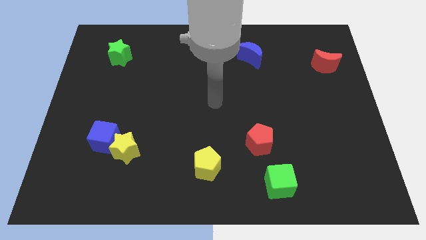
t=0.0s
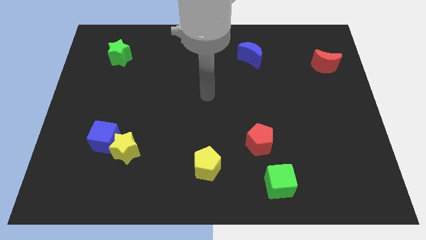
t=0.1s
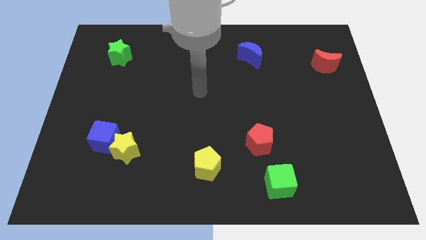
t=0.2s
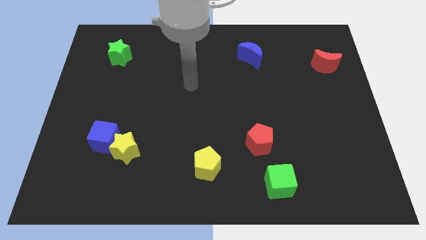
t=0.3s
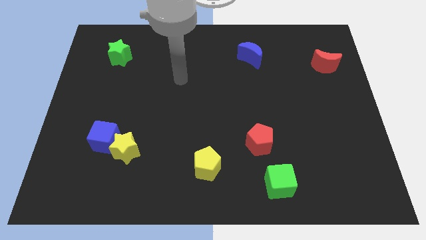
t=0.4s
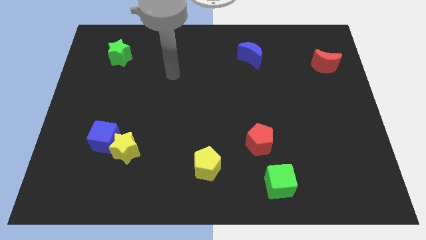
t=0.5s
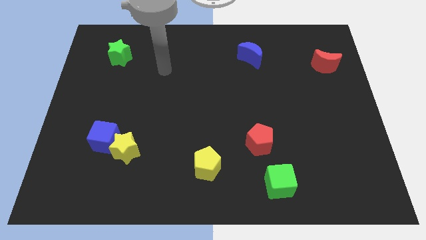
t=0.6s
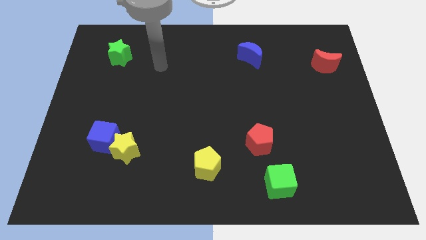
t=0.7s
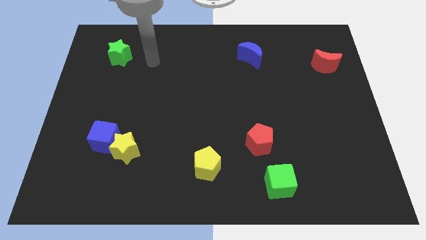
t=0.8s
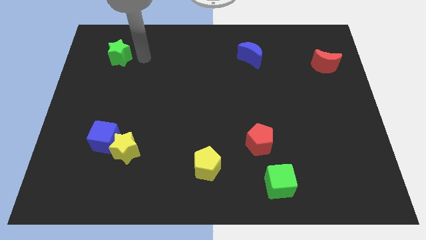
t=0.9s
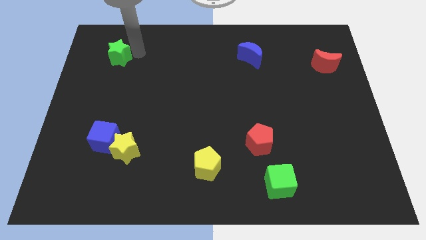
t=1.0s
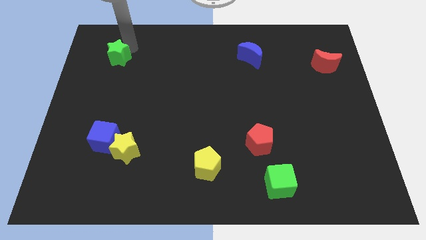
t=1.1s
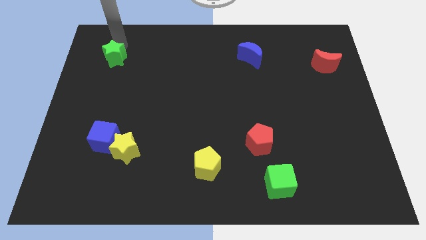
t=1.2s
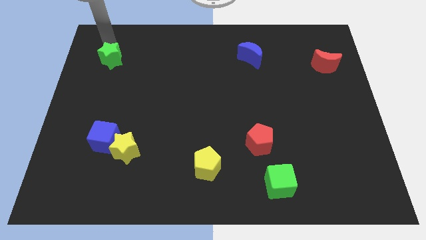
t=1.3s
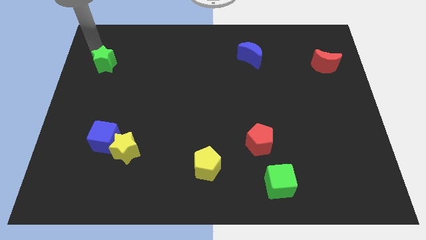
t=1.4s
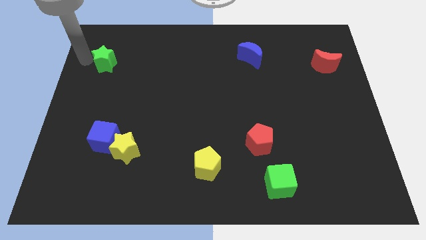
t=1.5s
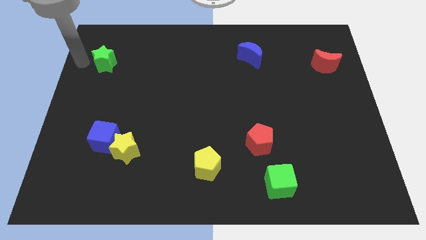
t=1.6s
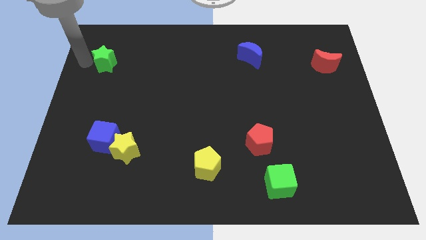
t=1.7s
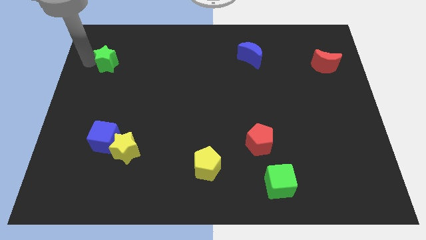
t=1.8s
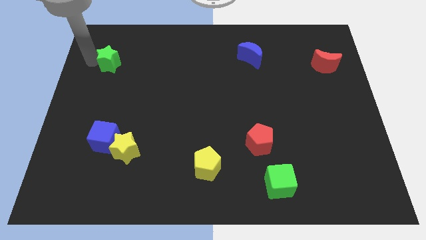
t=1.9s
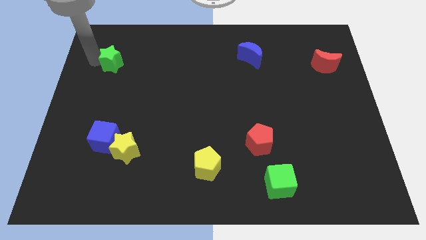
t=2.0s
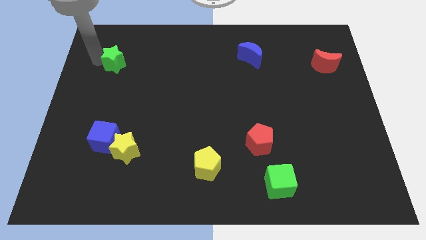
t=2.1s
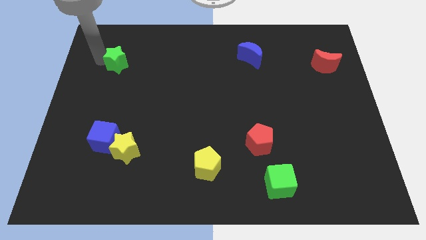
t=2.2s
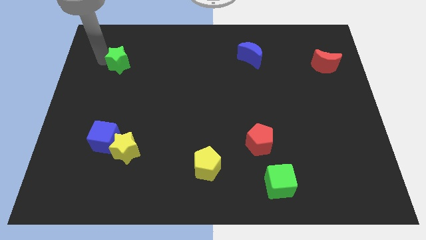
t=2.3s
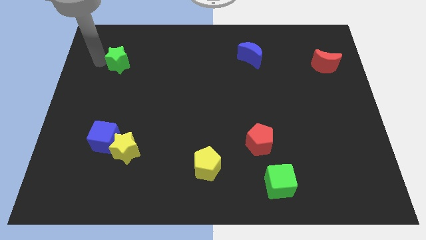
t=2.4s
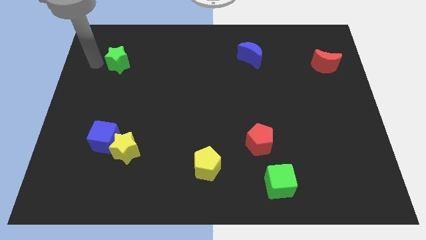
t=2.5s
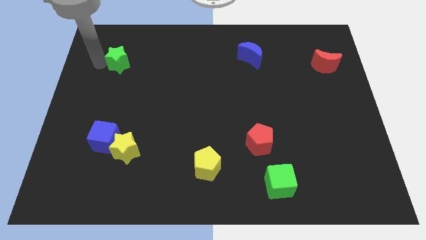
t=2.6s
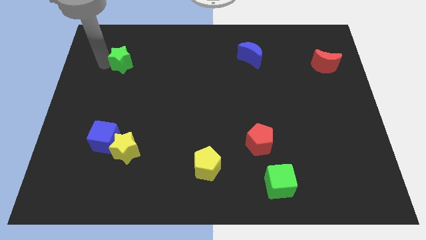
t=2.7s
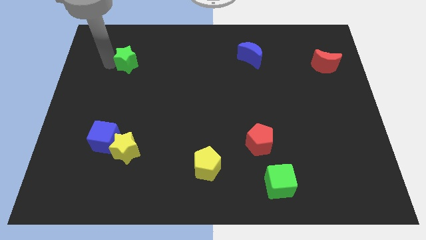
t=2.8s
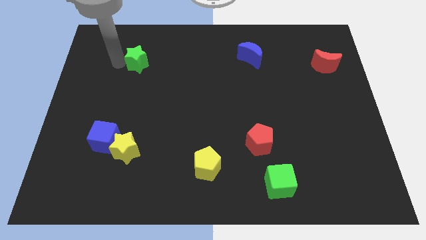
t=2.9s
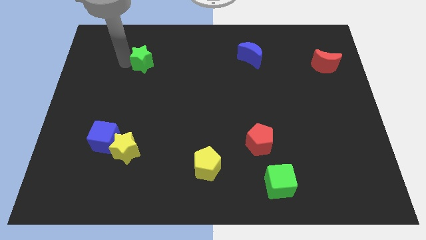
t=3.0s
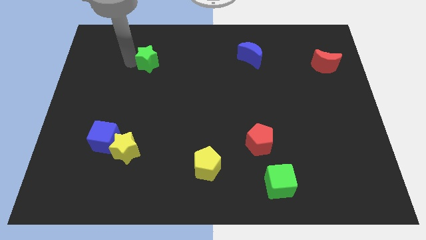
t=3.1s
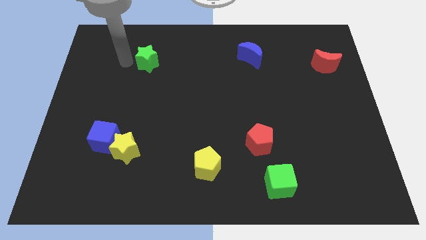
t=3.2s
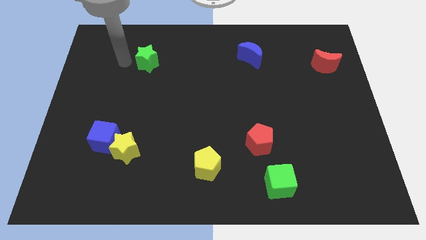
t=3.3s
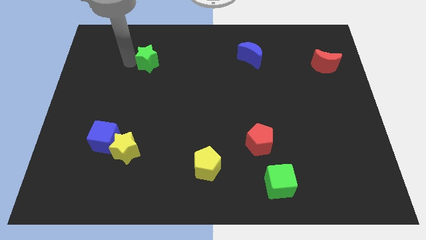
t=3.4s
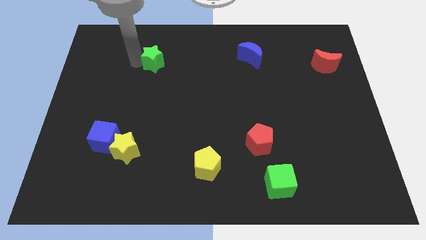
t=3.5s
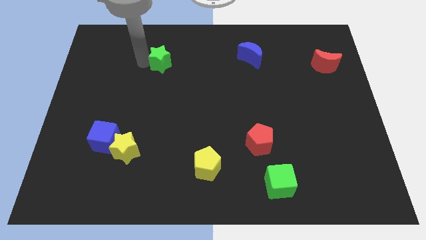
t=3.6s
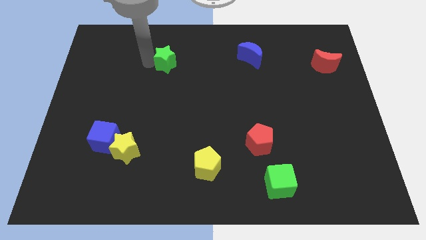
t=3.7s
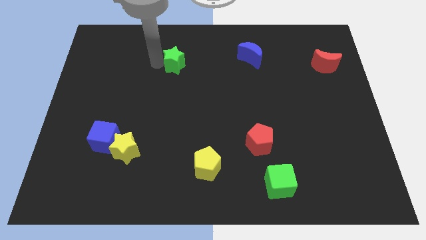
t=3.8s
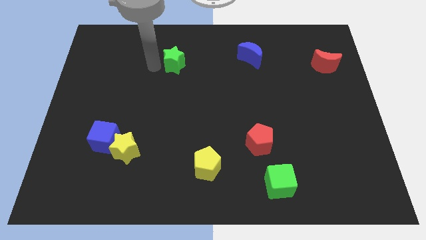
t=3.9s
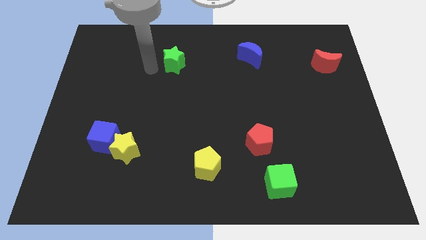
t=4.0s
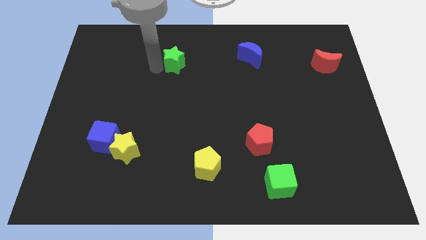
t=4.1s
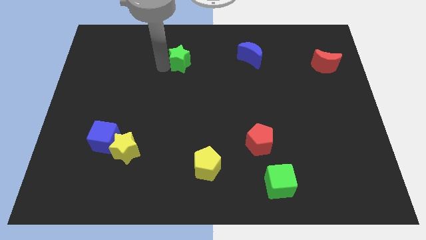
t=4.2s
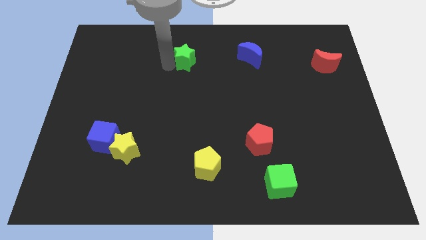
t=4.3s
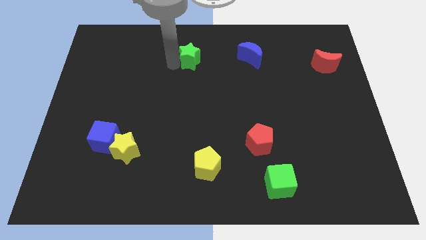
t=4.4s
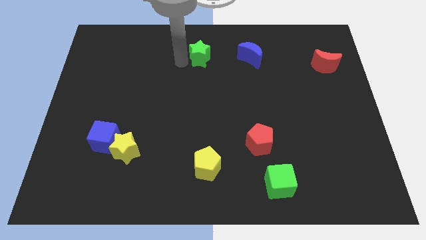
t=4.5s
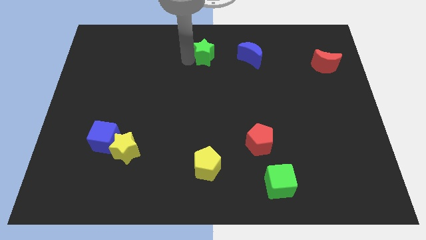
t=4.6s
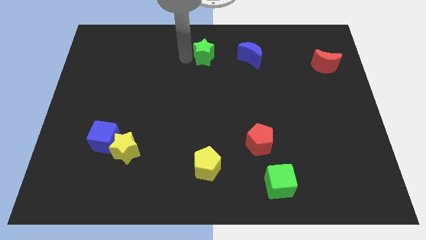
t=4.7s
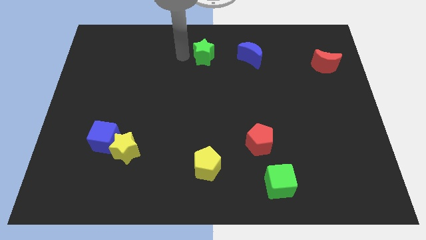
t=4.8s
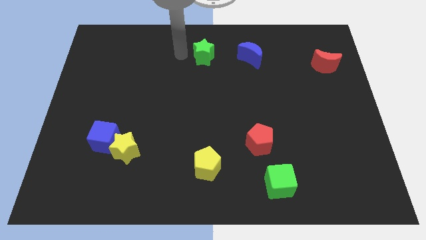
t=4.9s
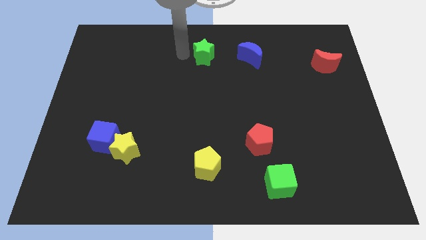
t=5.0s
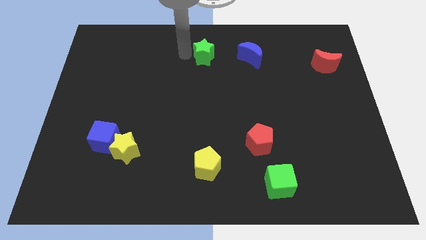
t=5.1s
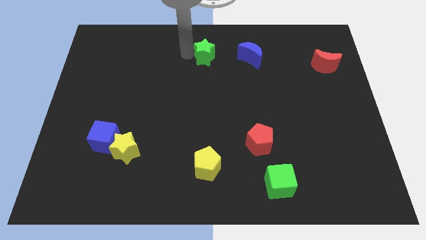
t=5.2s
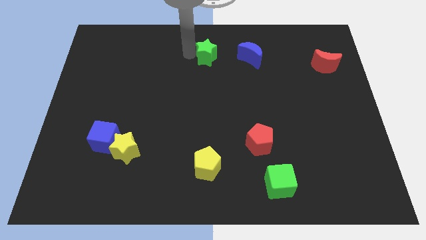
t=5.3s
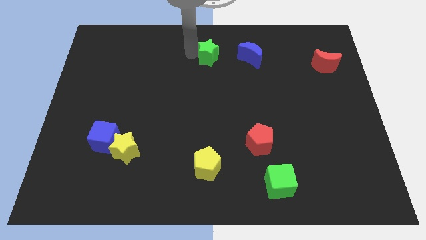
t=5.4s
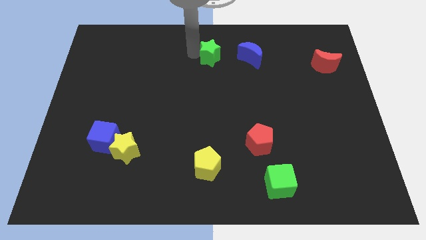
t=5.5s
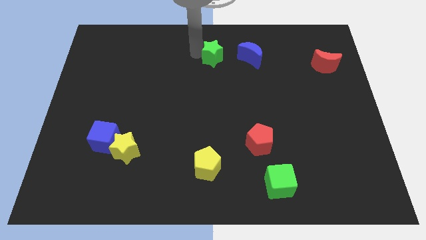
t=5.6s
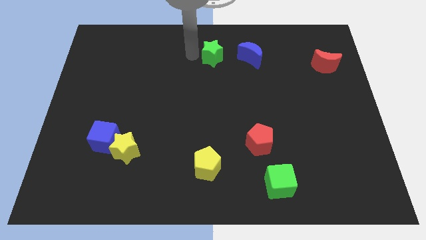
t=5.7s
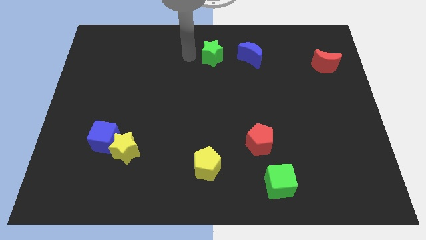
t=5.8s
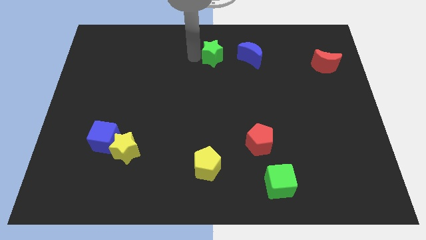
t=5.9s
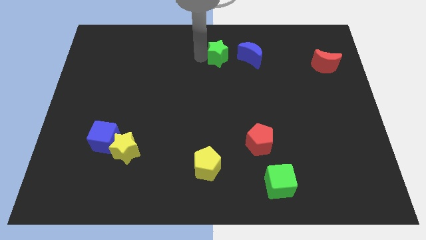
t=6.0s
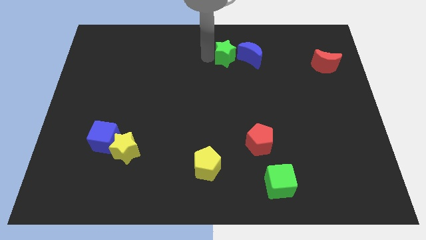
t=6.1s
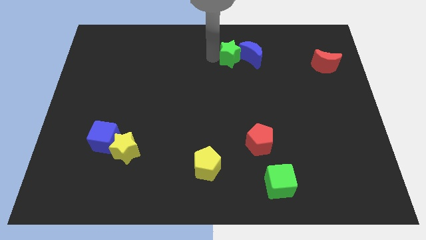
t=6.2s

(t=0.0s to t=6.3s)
move the green star next to the blue moon

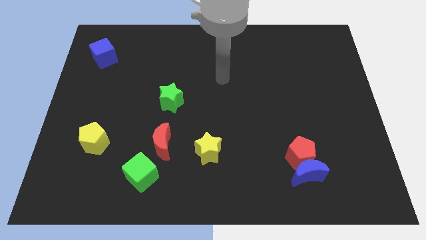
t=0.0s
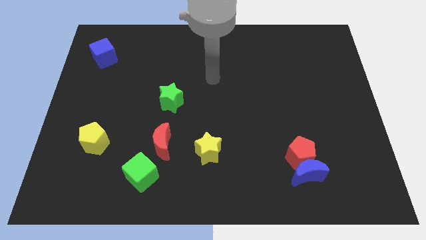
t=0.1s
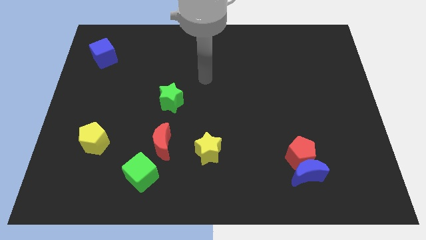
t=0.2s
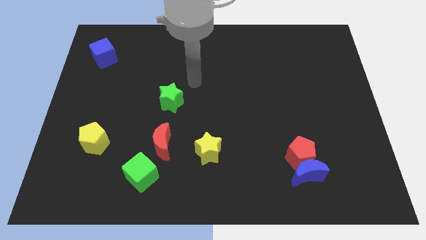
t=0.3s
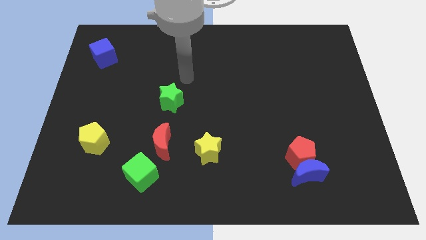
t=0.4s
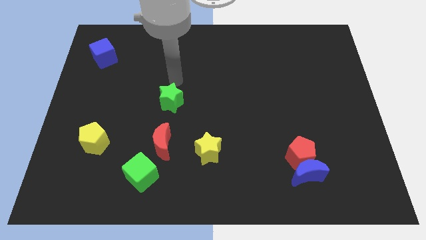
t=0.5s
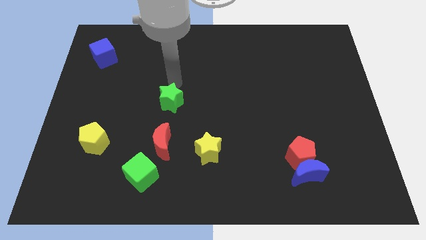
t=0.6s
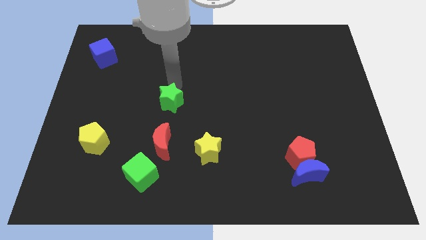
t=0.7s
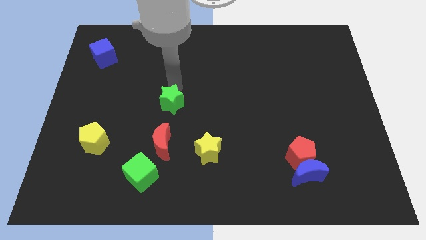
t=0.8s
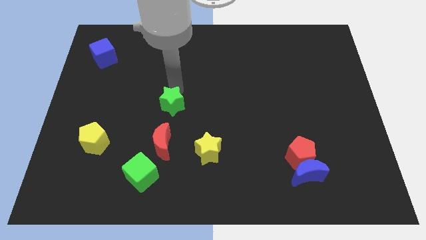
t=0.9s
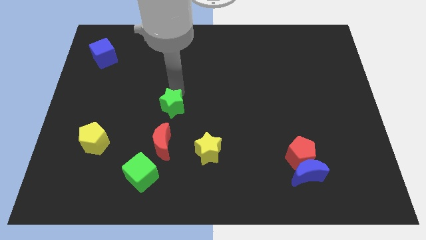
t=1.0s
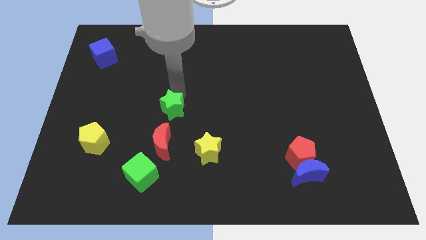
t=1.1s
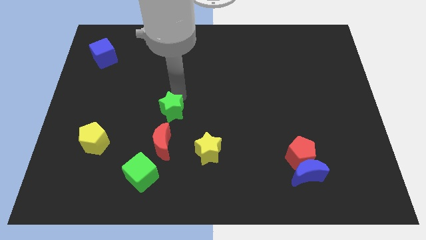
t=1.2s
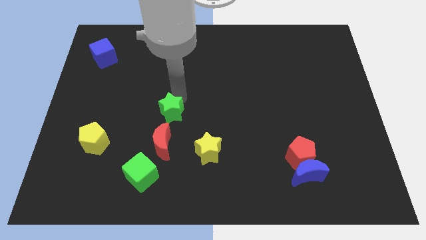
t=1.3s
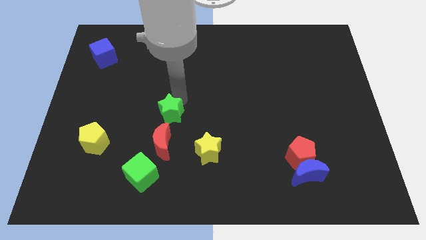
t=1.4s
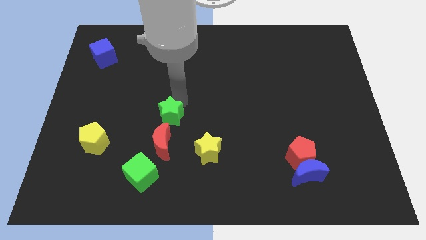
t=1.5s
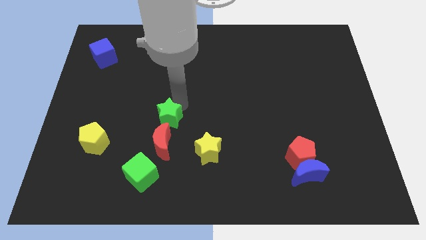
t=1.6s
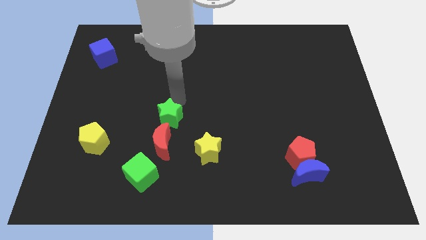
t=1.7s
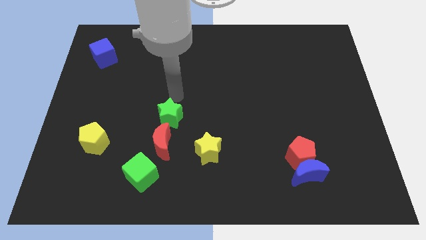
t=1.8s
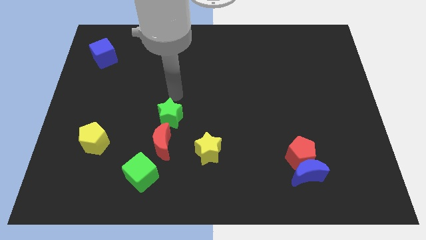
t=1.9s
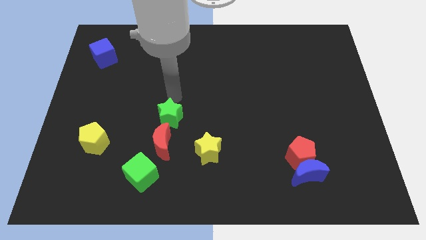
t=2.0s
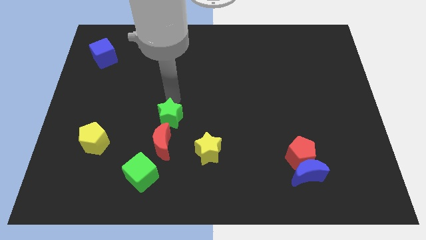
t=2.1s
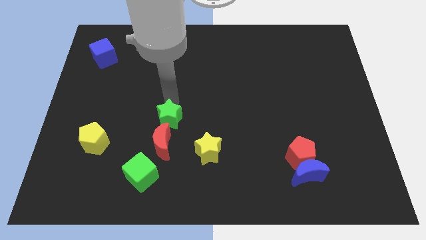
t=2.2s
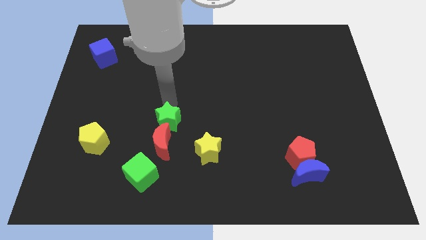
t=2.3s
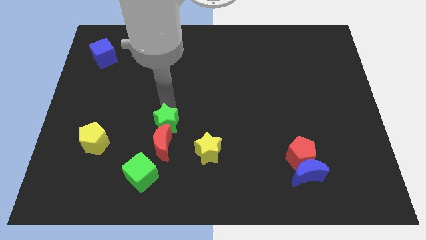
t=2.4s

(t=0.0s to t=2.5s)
put the green star towards the red moon
